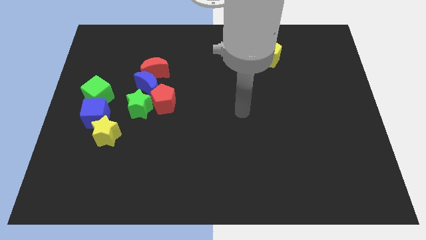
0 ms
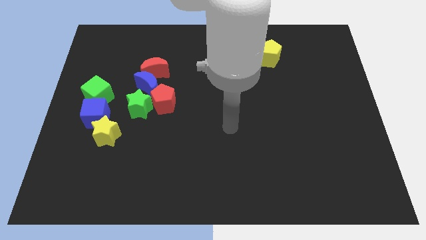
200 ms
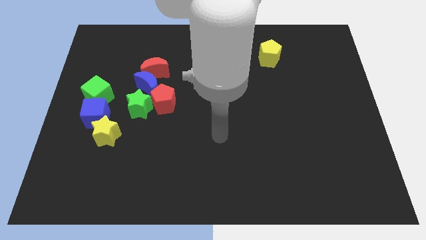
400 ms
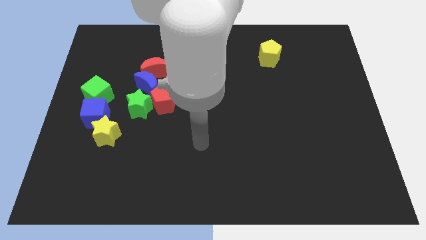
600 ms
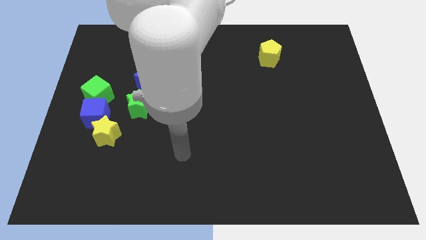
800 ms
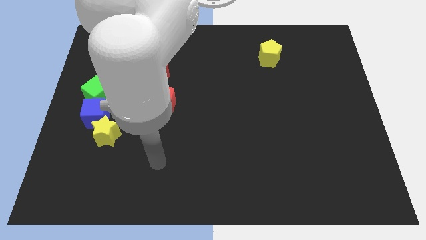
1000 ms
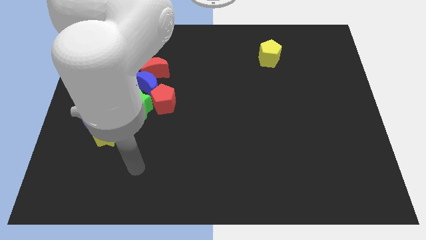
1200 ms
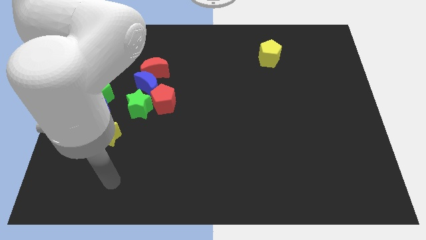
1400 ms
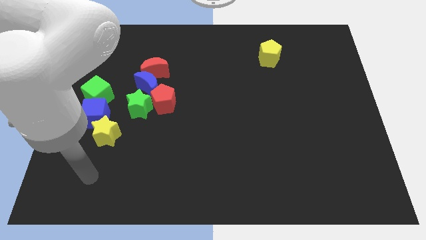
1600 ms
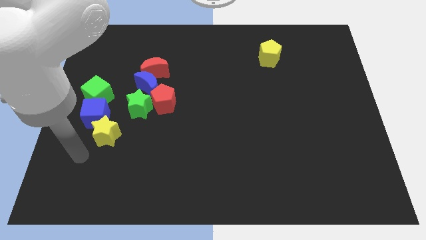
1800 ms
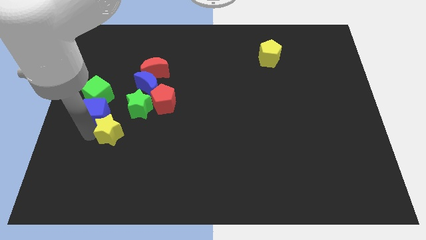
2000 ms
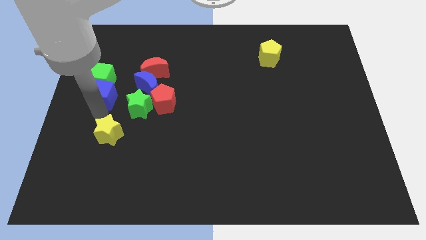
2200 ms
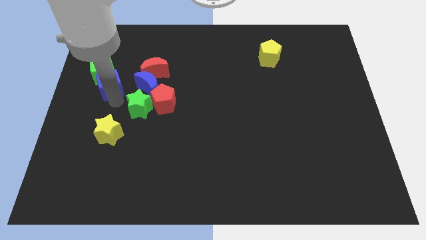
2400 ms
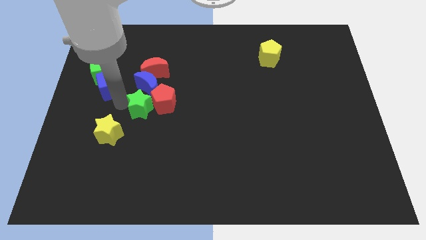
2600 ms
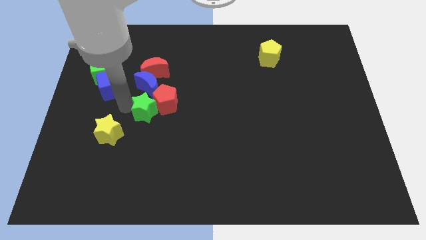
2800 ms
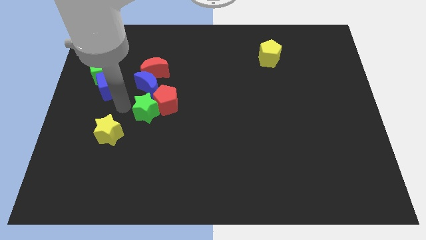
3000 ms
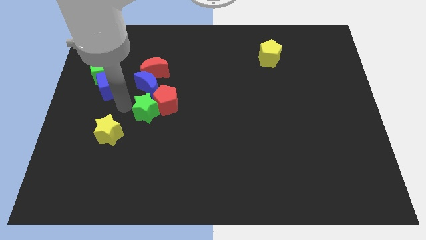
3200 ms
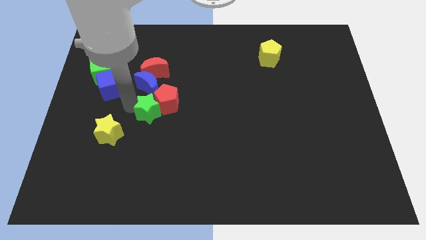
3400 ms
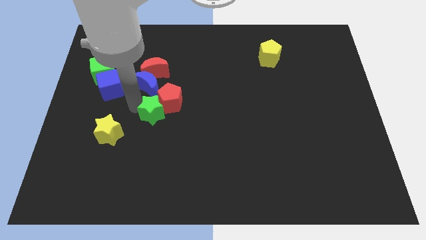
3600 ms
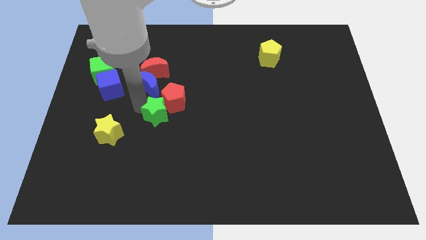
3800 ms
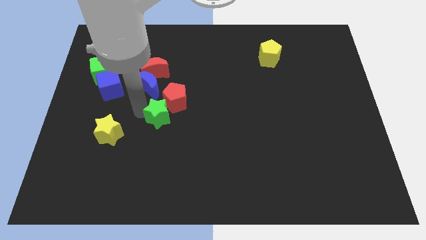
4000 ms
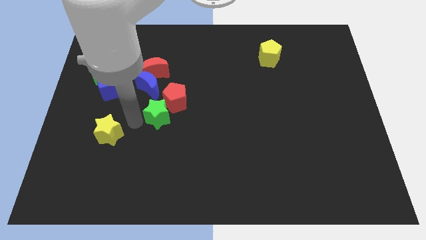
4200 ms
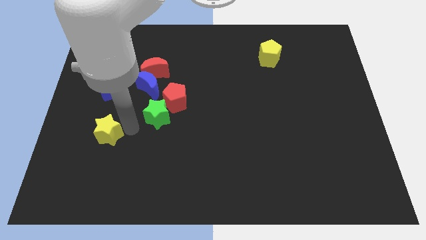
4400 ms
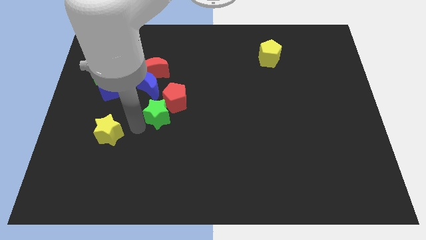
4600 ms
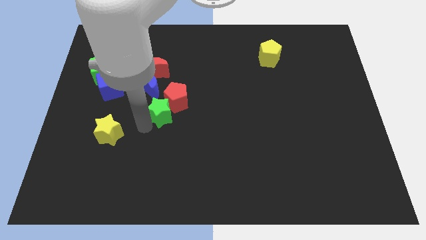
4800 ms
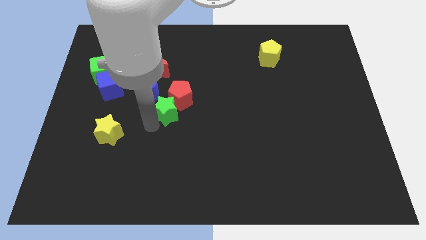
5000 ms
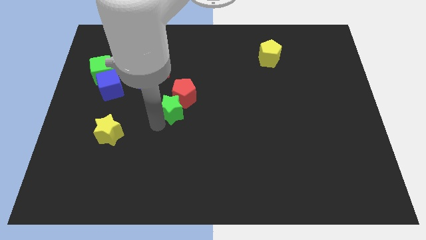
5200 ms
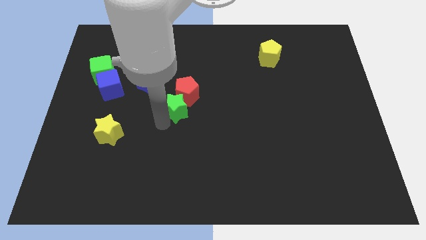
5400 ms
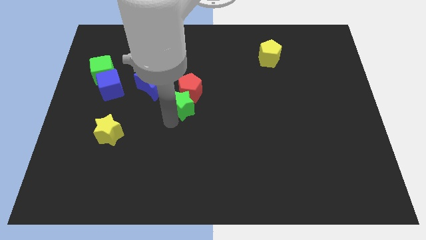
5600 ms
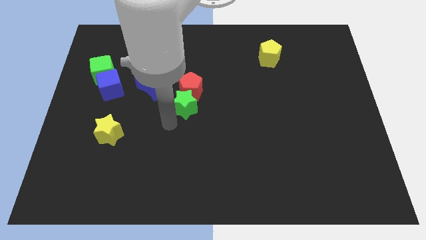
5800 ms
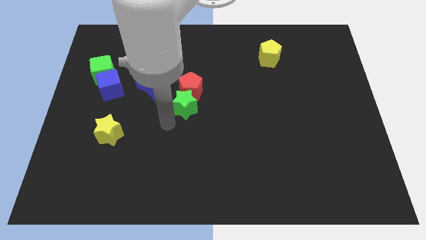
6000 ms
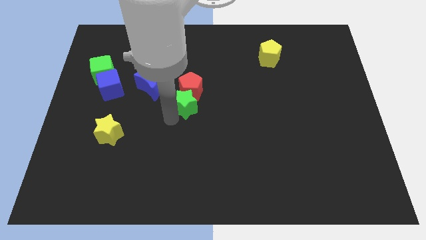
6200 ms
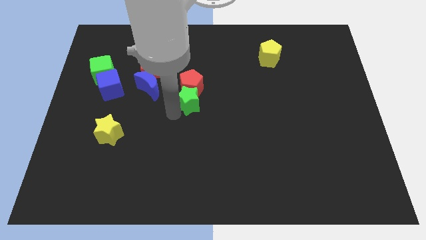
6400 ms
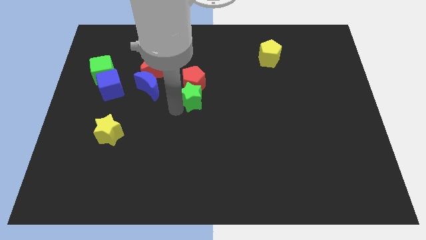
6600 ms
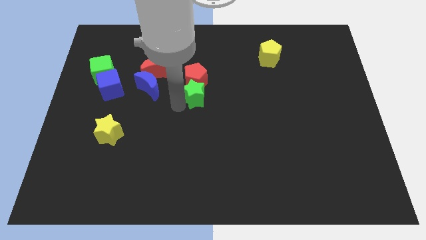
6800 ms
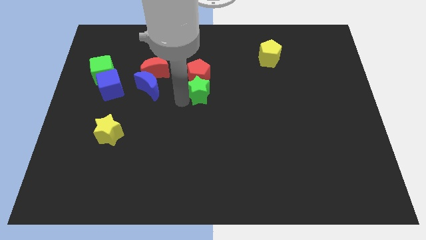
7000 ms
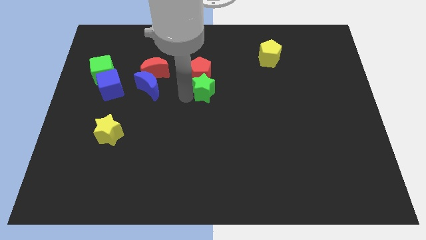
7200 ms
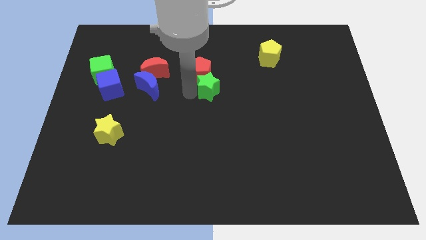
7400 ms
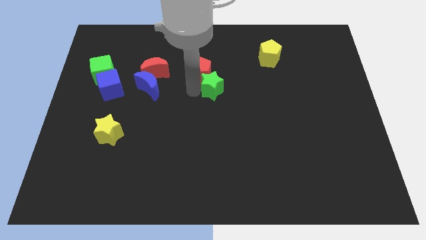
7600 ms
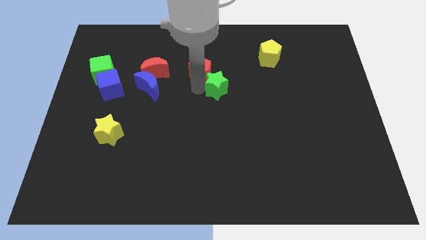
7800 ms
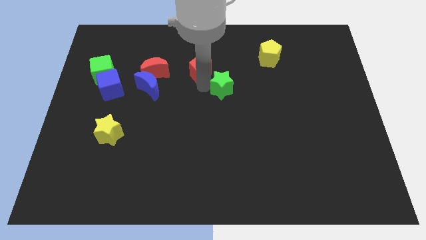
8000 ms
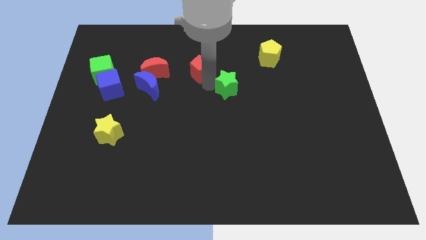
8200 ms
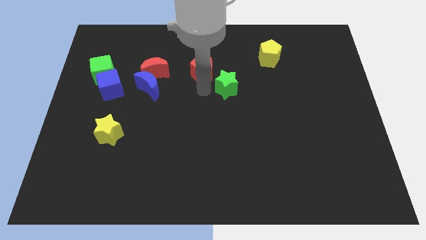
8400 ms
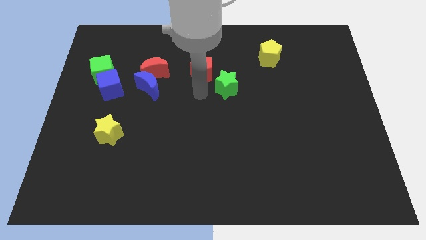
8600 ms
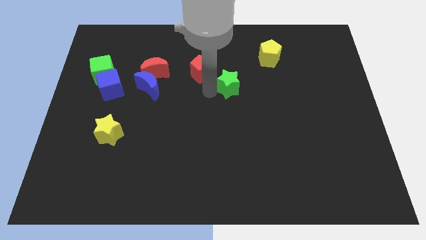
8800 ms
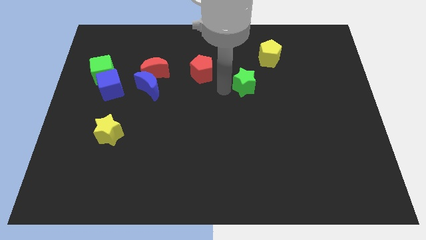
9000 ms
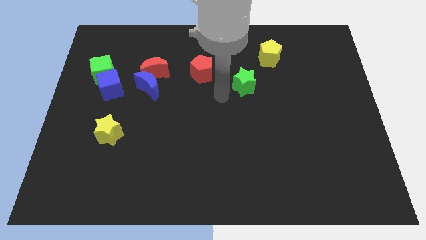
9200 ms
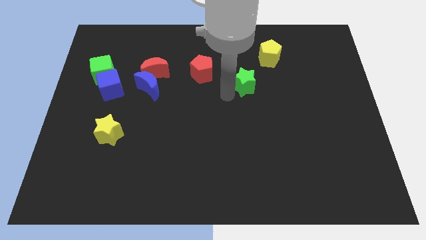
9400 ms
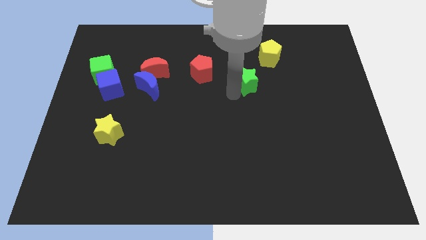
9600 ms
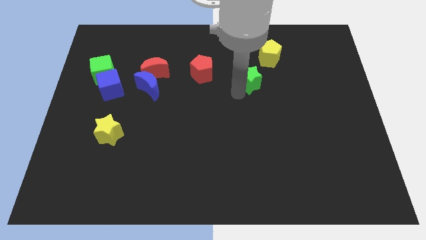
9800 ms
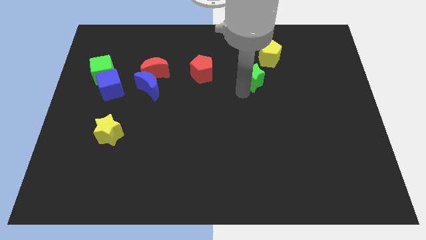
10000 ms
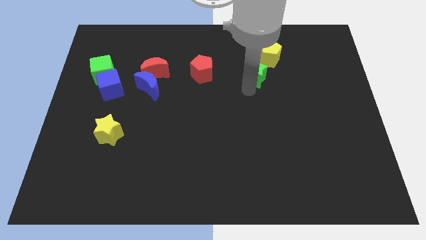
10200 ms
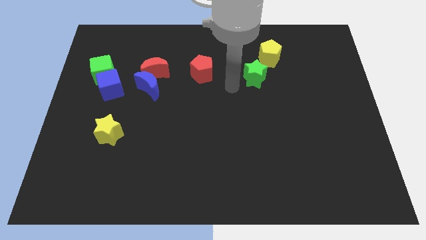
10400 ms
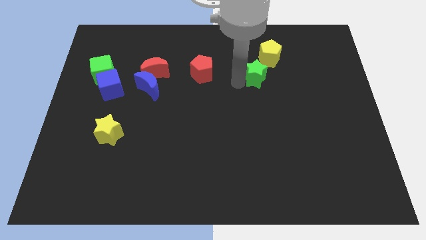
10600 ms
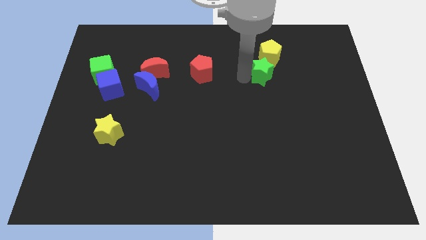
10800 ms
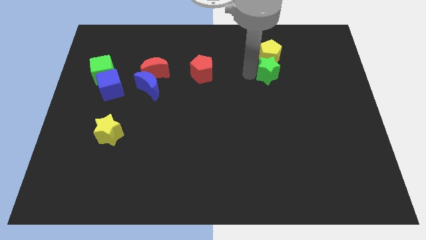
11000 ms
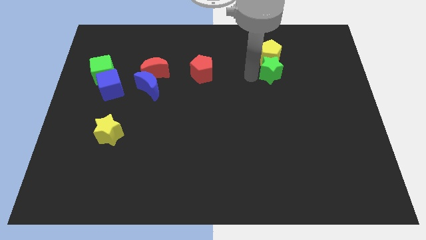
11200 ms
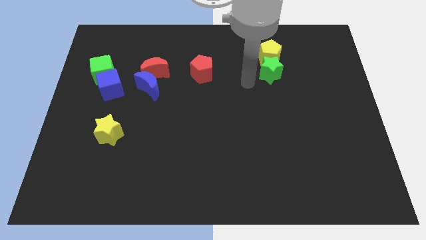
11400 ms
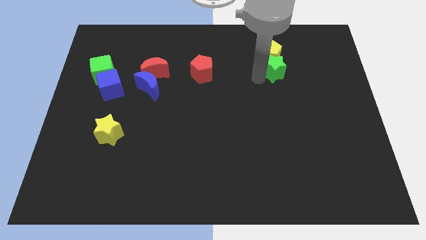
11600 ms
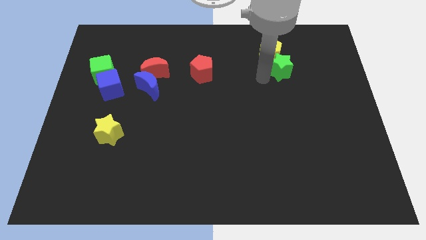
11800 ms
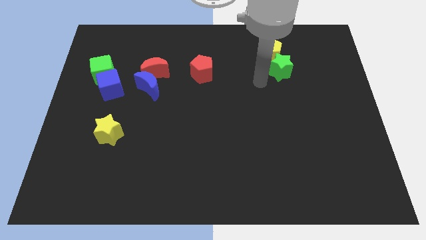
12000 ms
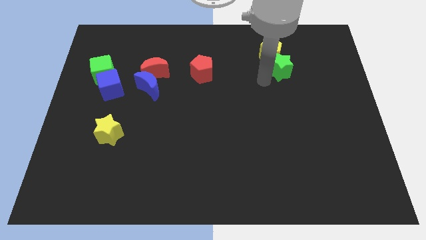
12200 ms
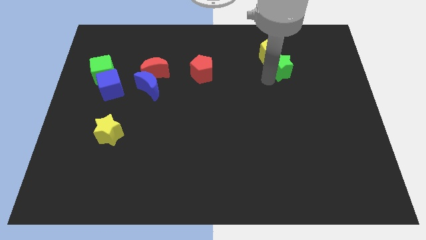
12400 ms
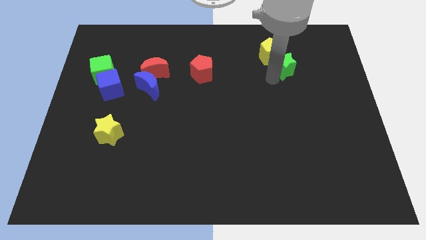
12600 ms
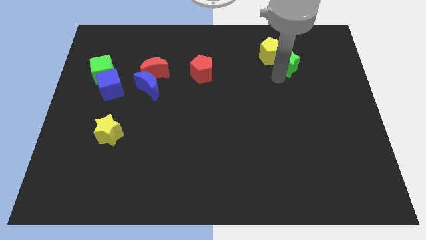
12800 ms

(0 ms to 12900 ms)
move the green star to the right of the yellow pentagon
